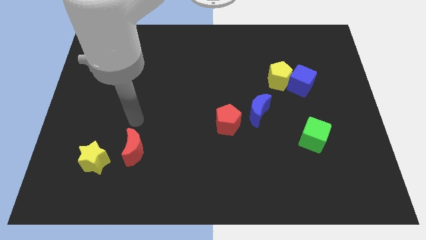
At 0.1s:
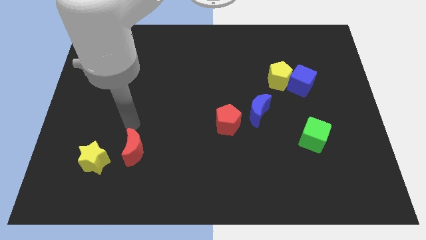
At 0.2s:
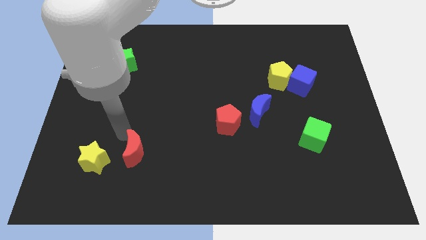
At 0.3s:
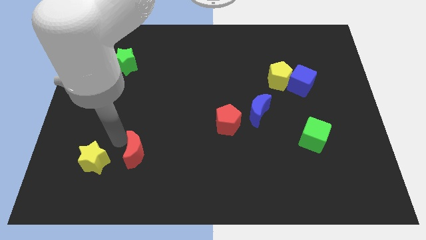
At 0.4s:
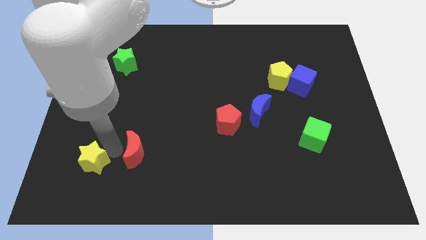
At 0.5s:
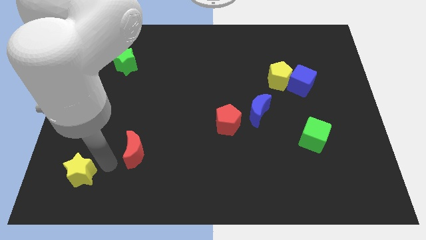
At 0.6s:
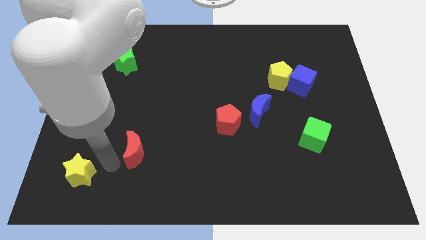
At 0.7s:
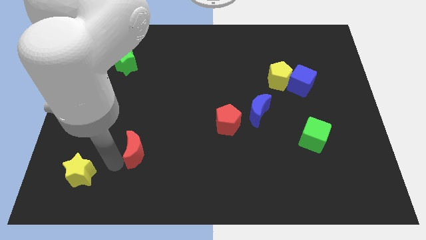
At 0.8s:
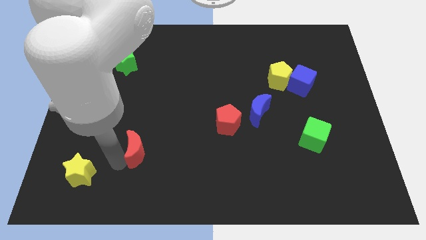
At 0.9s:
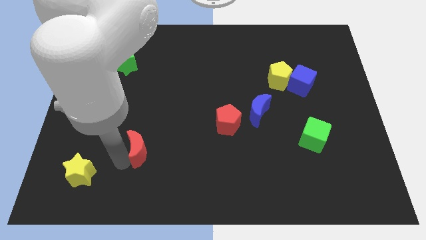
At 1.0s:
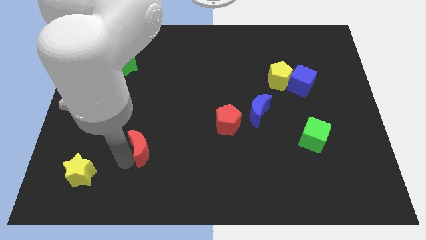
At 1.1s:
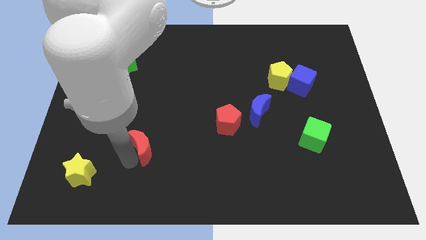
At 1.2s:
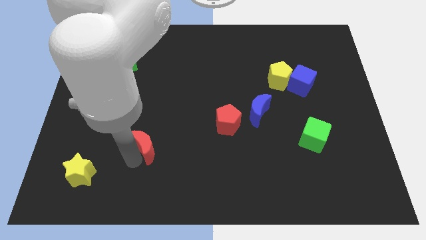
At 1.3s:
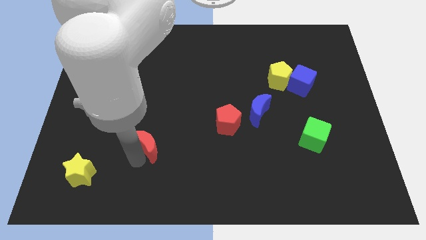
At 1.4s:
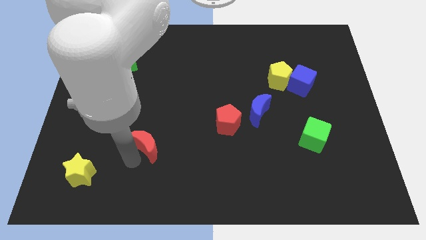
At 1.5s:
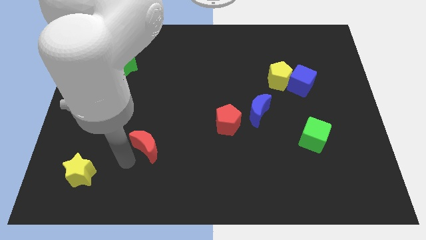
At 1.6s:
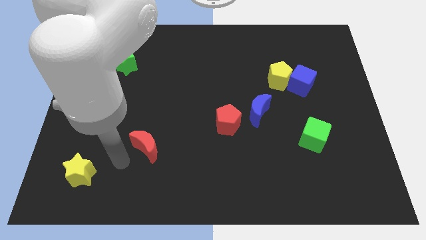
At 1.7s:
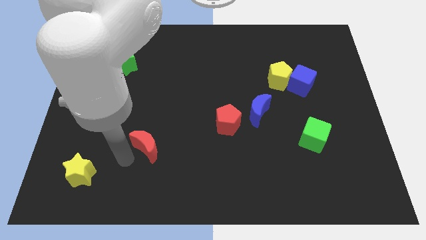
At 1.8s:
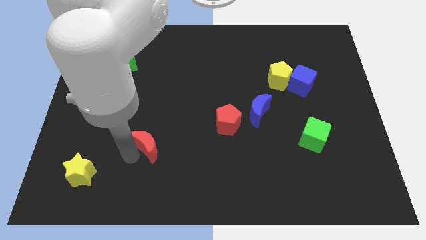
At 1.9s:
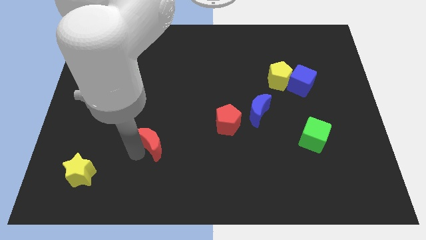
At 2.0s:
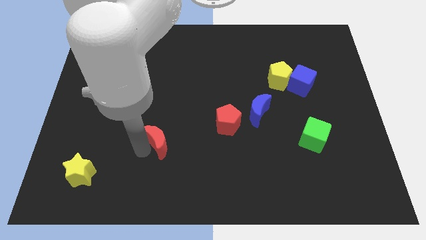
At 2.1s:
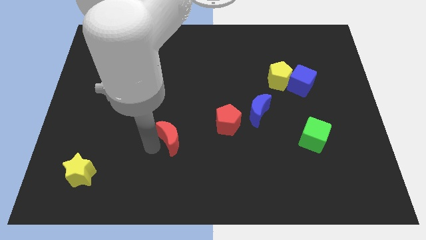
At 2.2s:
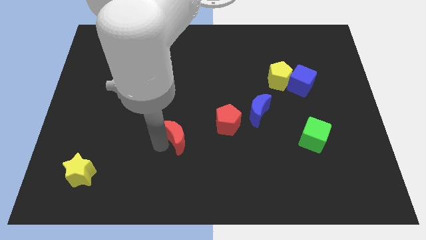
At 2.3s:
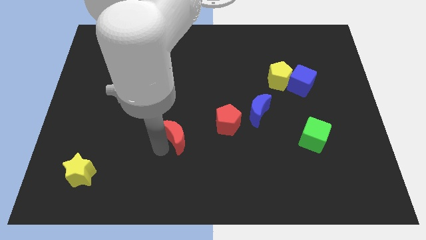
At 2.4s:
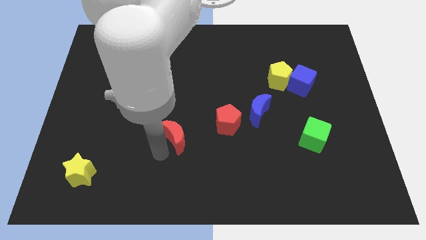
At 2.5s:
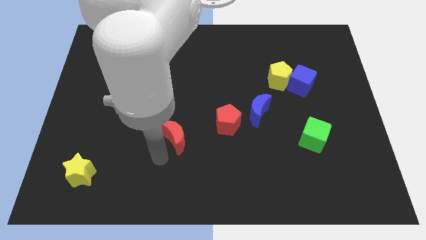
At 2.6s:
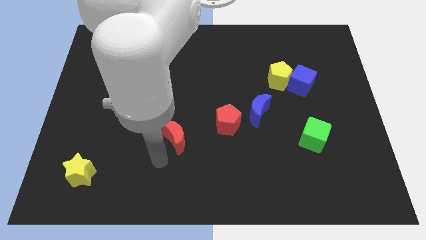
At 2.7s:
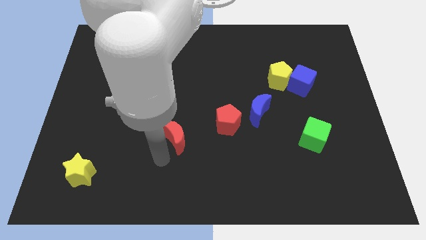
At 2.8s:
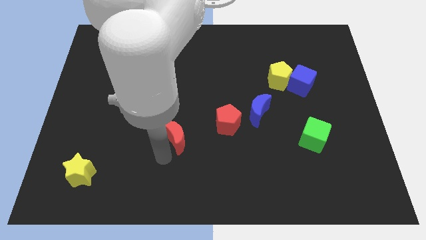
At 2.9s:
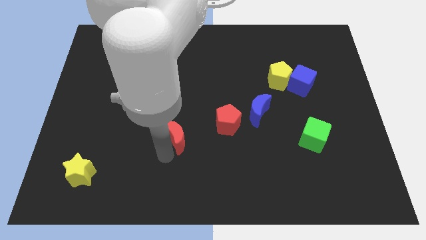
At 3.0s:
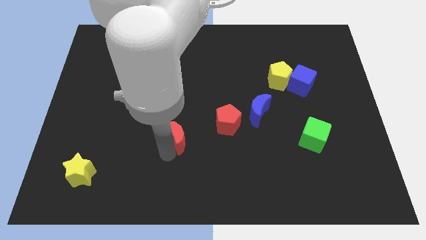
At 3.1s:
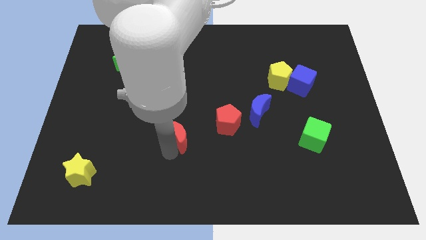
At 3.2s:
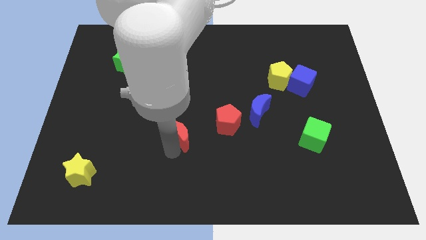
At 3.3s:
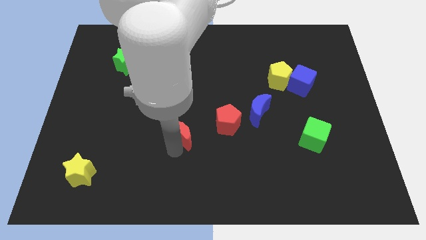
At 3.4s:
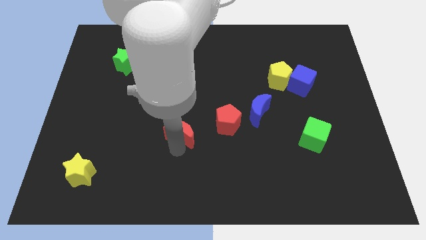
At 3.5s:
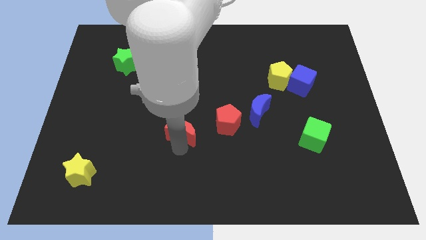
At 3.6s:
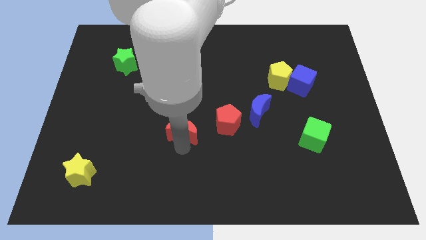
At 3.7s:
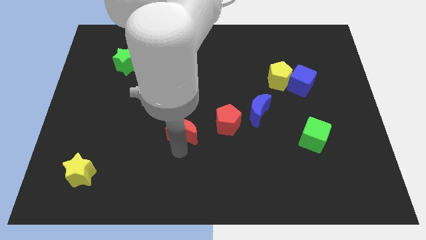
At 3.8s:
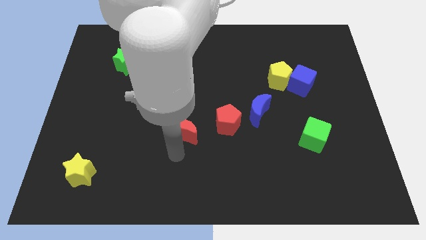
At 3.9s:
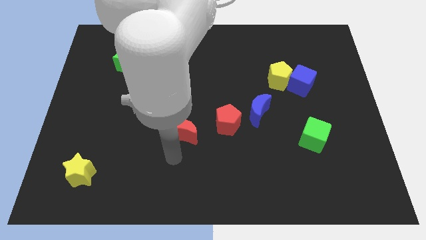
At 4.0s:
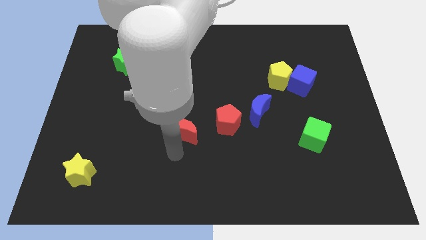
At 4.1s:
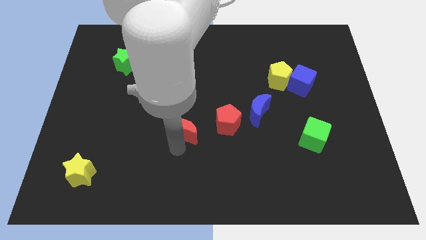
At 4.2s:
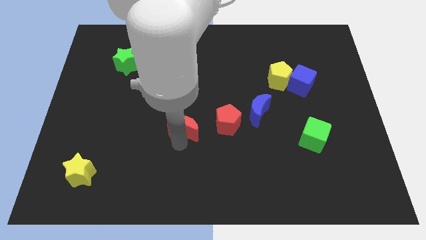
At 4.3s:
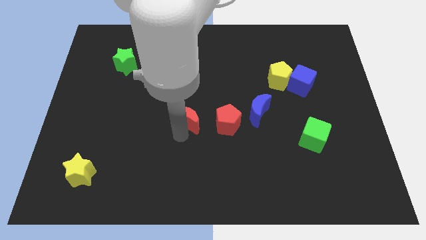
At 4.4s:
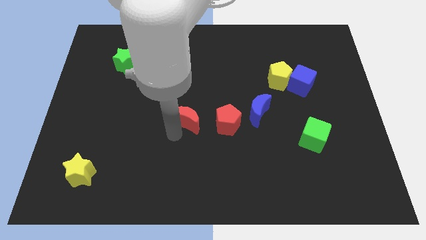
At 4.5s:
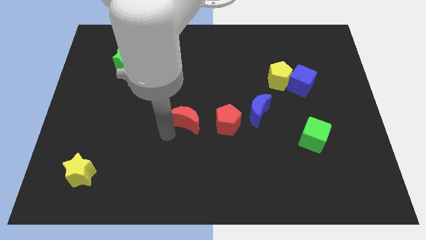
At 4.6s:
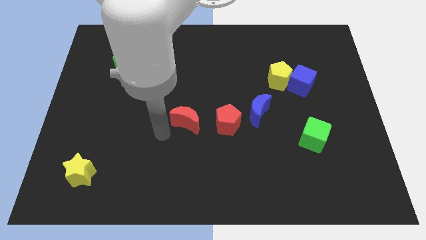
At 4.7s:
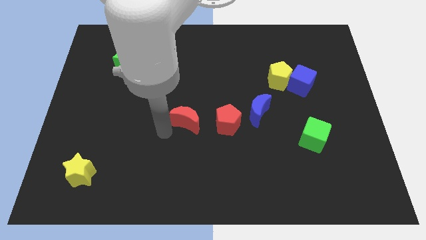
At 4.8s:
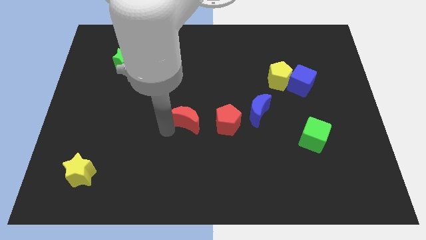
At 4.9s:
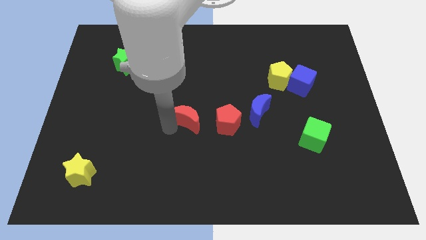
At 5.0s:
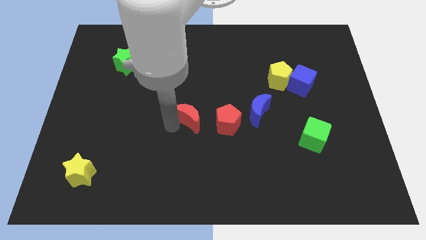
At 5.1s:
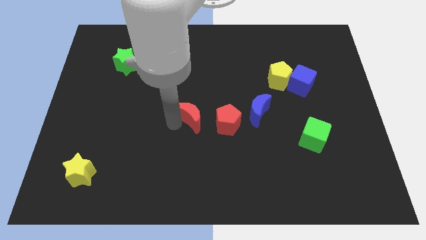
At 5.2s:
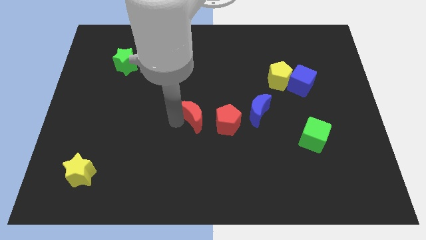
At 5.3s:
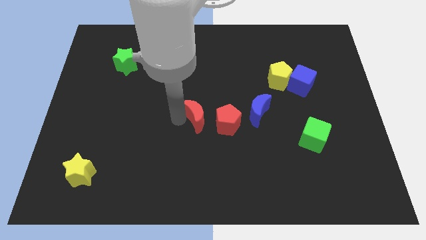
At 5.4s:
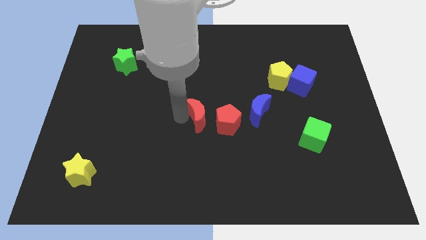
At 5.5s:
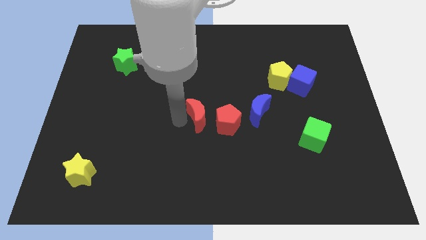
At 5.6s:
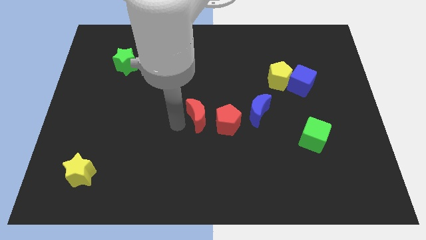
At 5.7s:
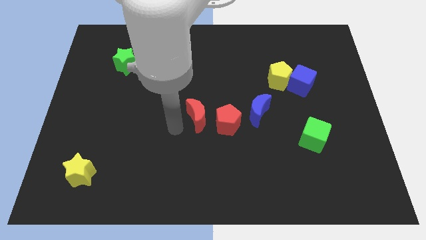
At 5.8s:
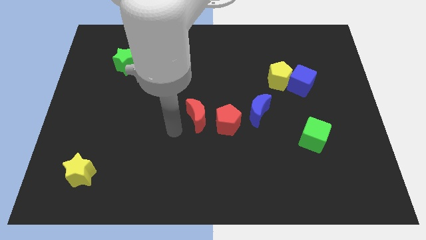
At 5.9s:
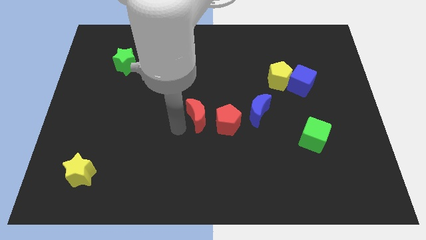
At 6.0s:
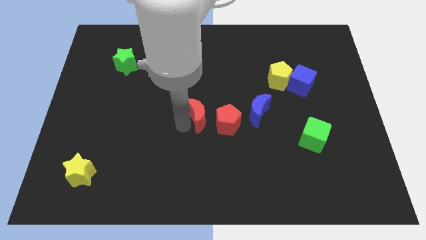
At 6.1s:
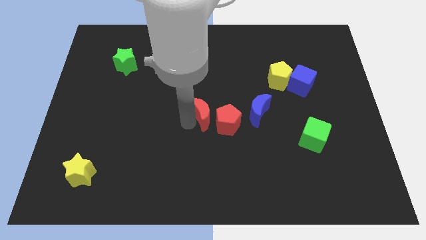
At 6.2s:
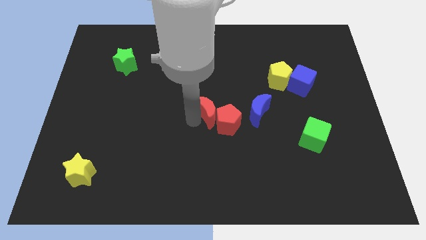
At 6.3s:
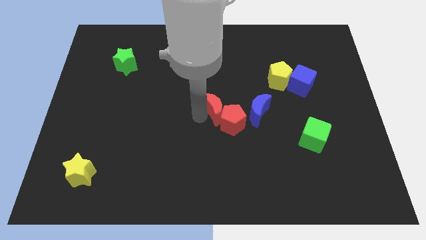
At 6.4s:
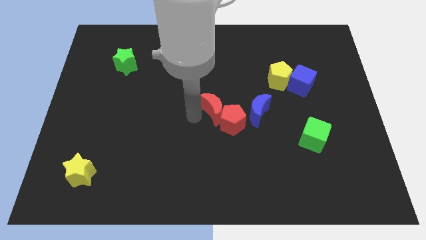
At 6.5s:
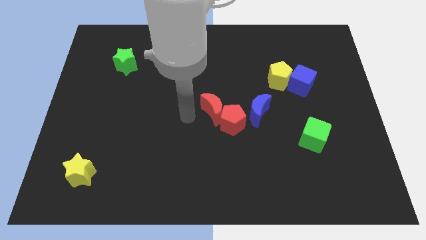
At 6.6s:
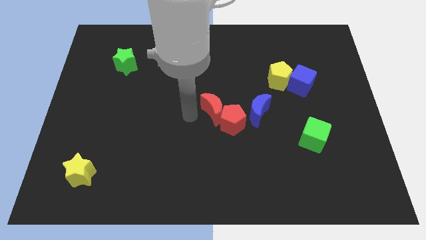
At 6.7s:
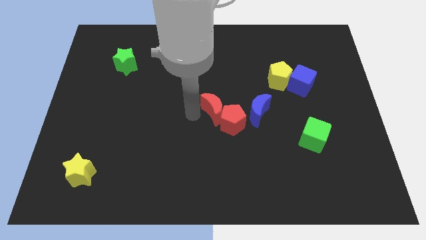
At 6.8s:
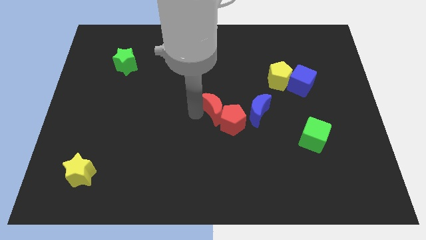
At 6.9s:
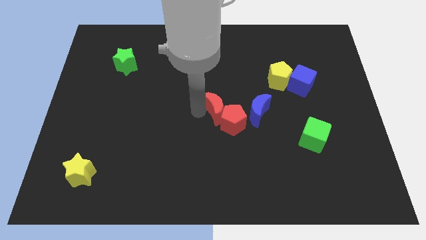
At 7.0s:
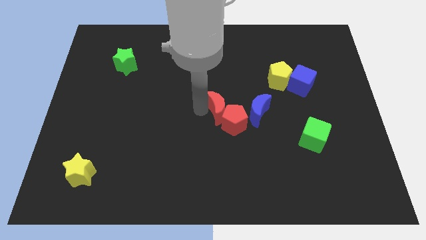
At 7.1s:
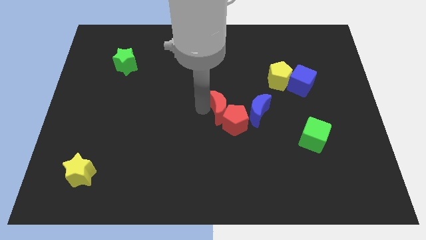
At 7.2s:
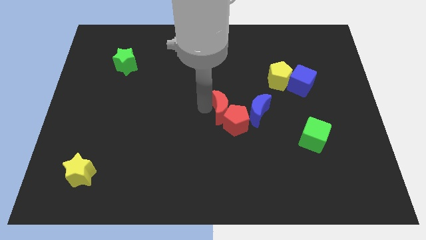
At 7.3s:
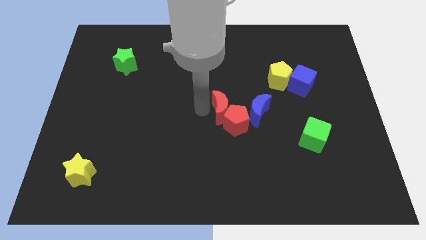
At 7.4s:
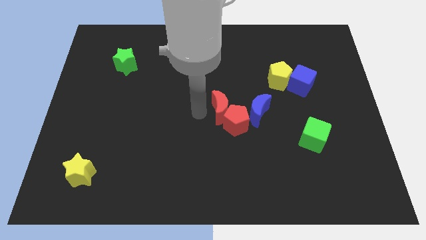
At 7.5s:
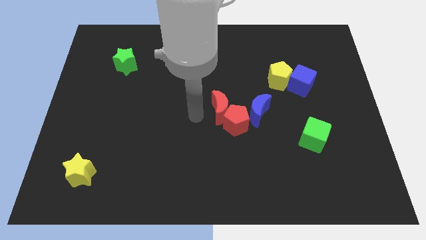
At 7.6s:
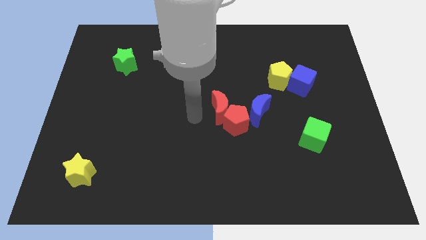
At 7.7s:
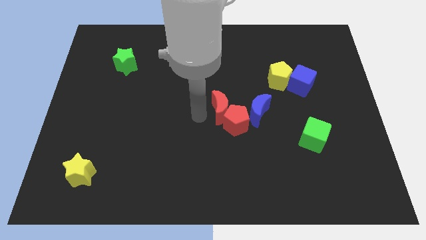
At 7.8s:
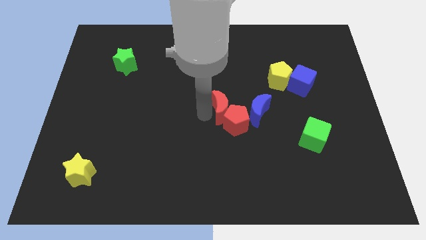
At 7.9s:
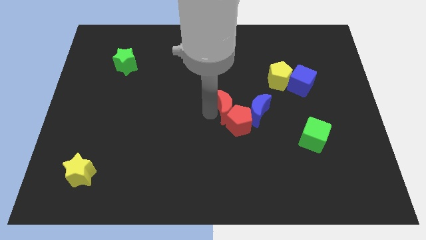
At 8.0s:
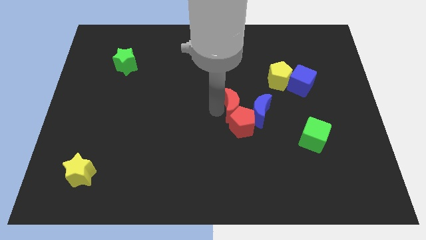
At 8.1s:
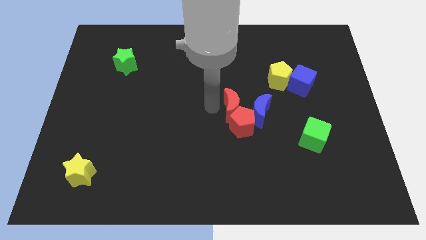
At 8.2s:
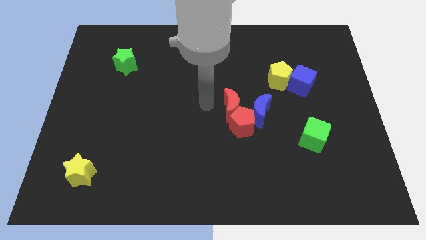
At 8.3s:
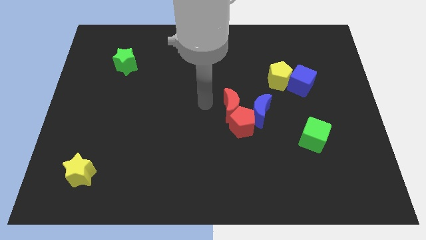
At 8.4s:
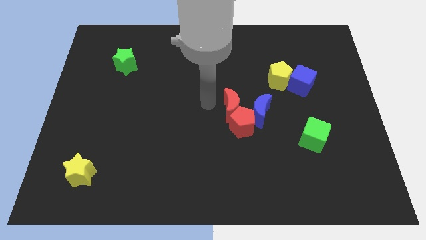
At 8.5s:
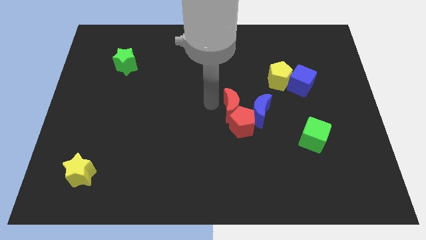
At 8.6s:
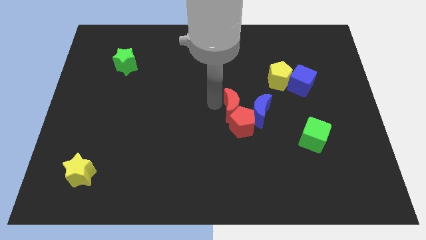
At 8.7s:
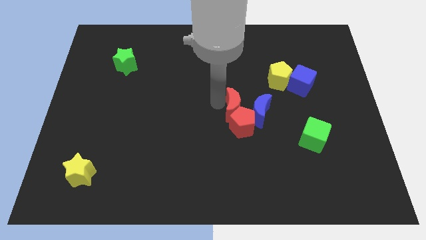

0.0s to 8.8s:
put the red moon to the blue moon
